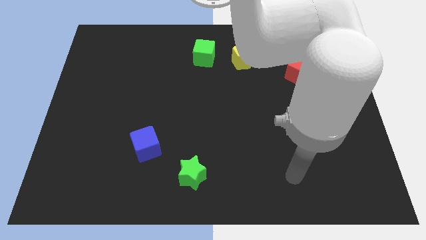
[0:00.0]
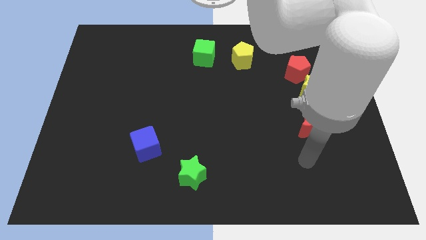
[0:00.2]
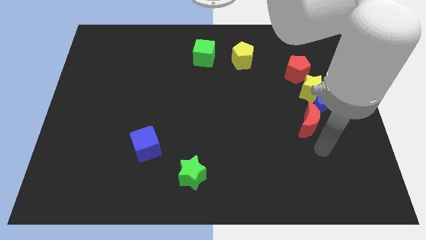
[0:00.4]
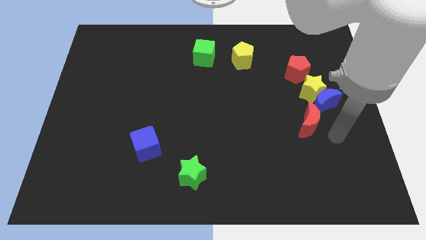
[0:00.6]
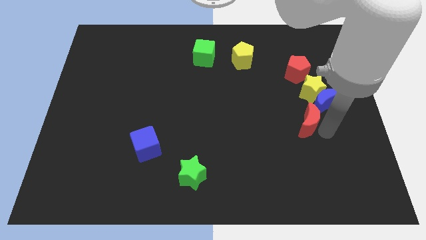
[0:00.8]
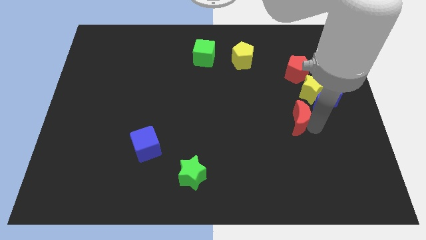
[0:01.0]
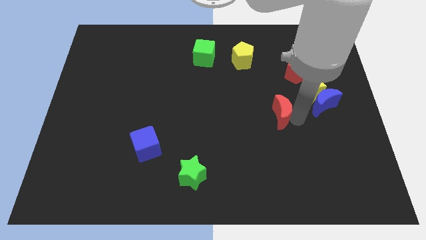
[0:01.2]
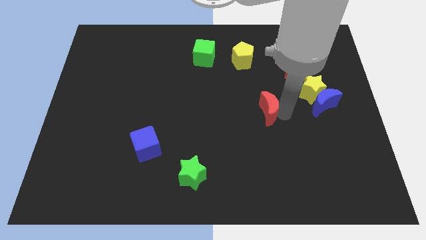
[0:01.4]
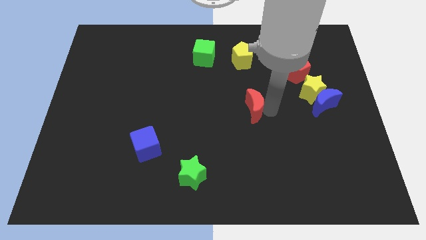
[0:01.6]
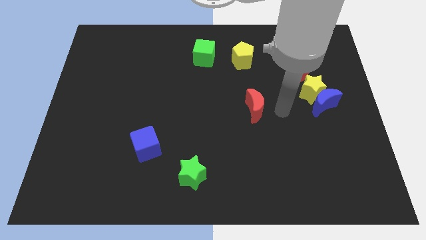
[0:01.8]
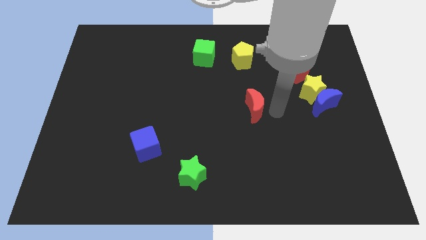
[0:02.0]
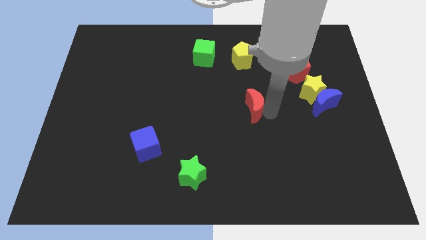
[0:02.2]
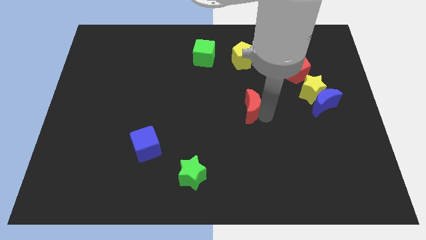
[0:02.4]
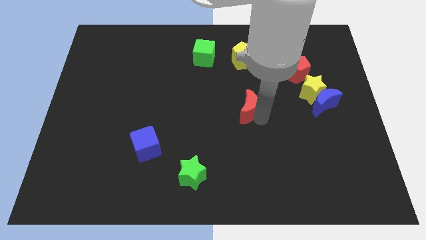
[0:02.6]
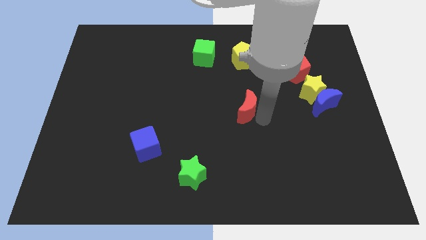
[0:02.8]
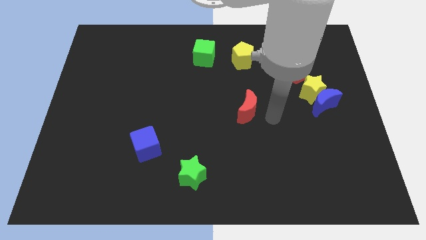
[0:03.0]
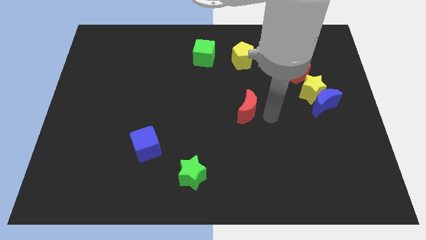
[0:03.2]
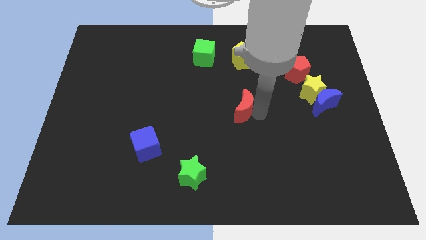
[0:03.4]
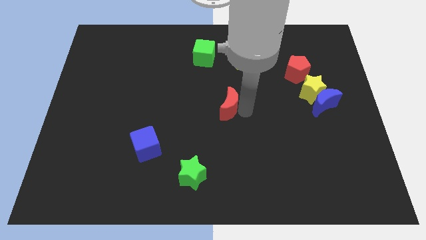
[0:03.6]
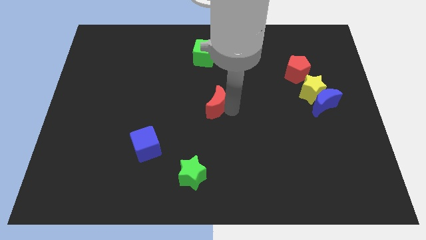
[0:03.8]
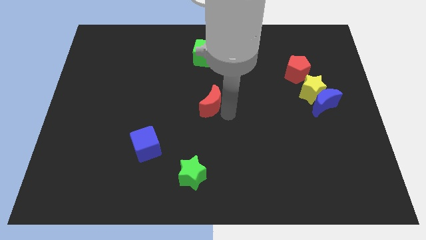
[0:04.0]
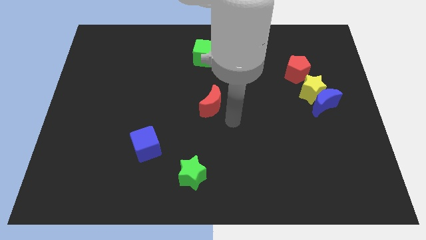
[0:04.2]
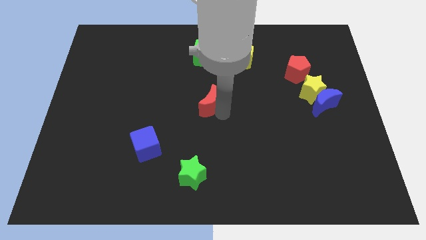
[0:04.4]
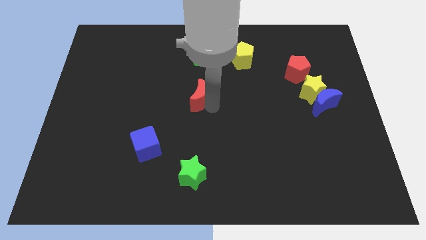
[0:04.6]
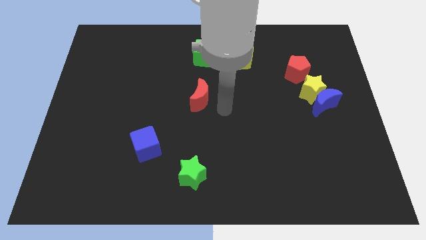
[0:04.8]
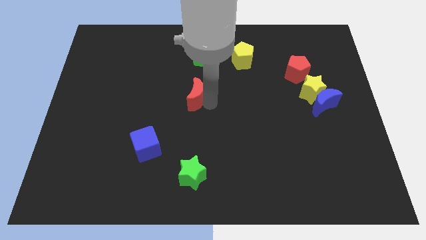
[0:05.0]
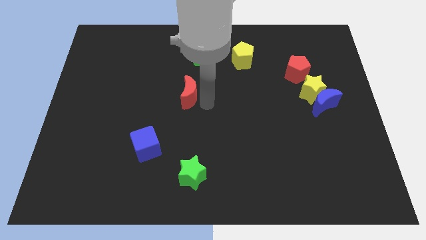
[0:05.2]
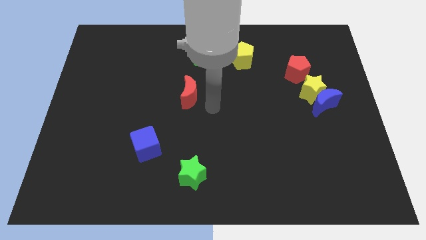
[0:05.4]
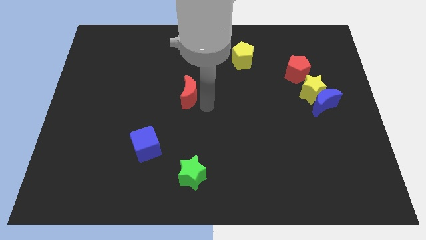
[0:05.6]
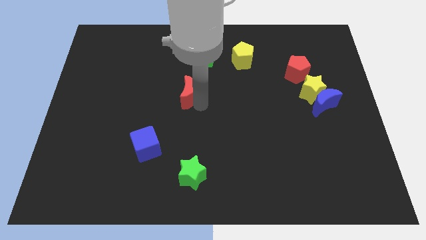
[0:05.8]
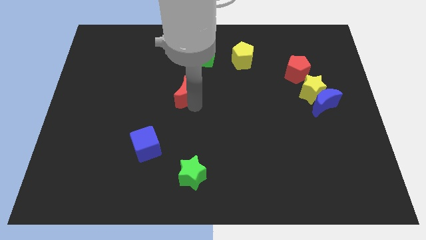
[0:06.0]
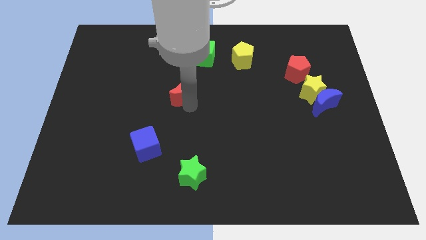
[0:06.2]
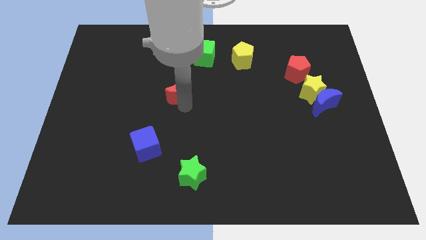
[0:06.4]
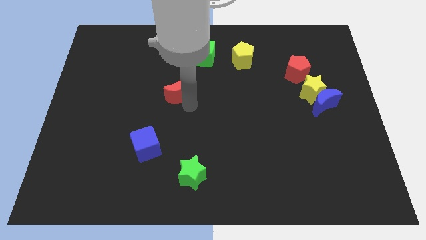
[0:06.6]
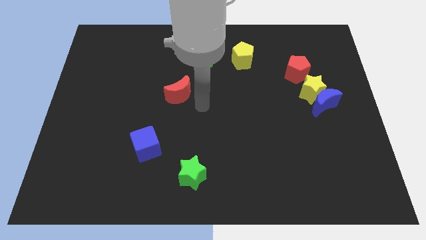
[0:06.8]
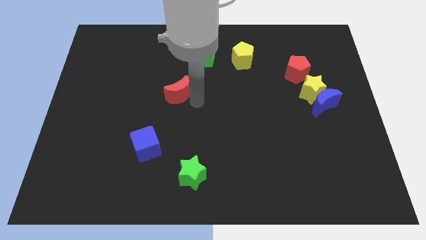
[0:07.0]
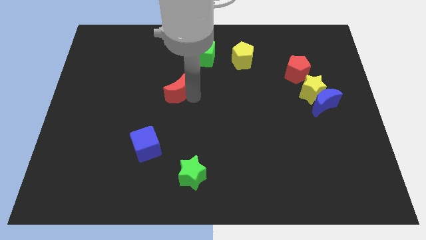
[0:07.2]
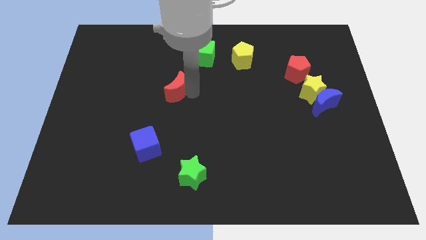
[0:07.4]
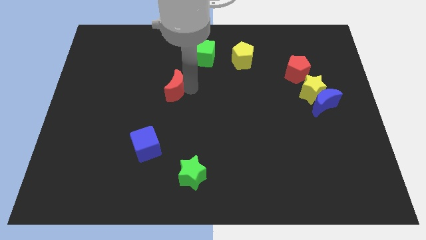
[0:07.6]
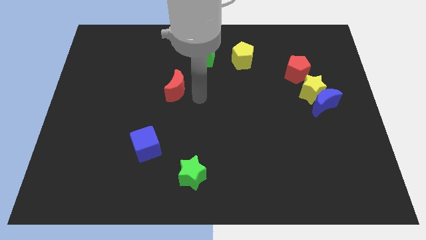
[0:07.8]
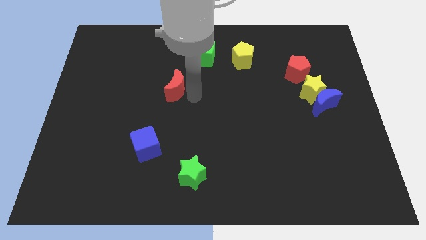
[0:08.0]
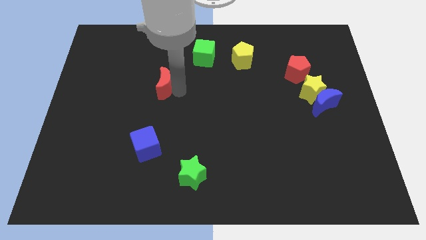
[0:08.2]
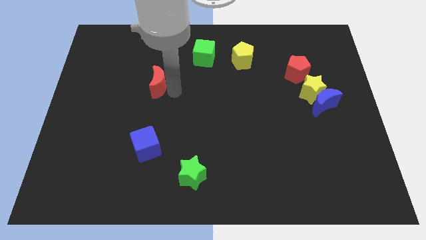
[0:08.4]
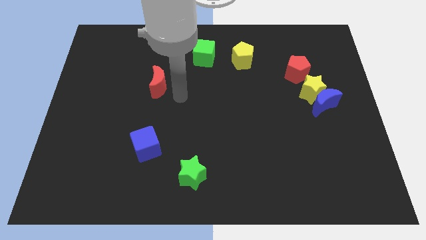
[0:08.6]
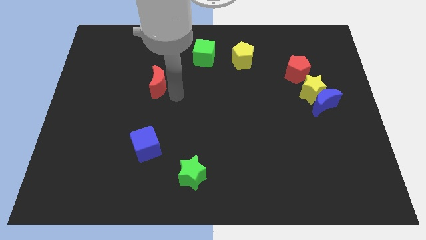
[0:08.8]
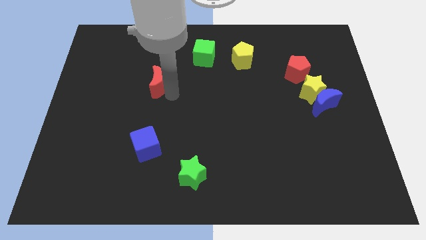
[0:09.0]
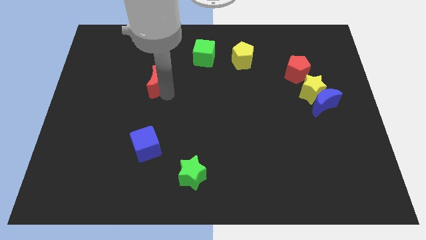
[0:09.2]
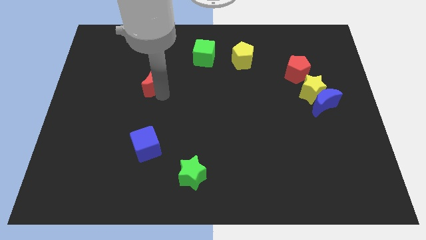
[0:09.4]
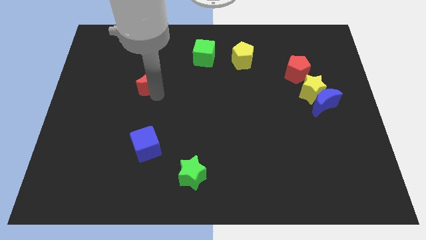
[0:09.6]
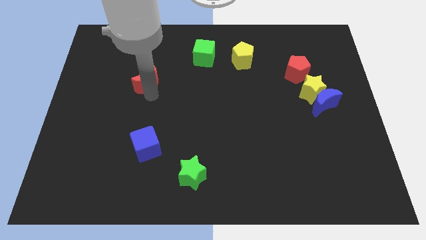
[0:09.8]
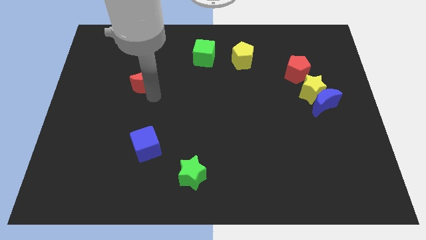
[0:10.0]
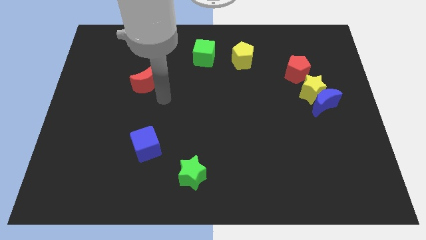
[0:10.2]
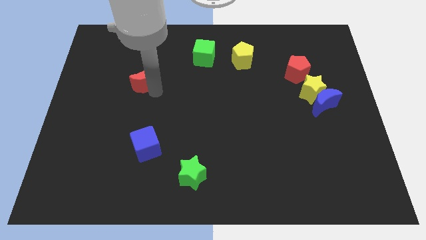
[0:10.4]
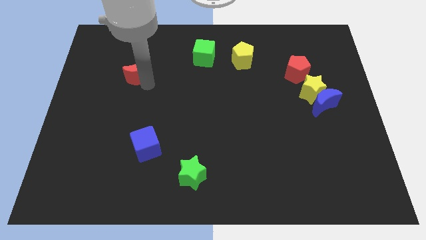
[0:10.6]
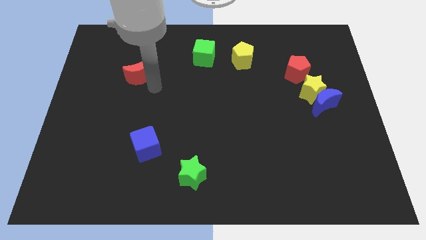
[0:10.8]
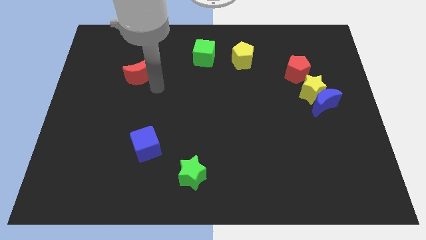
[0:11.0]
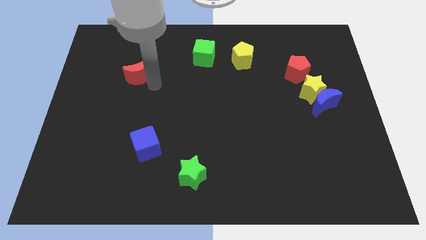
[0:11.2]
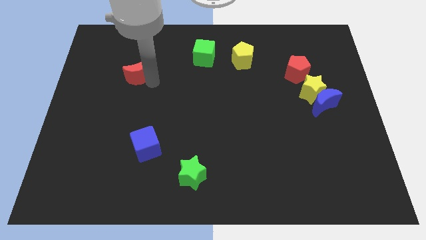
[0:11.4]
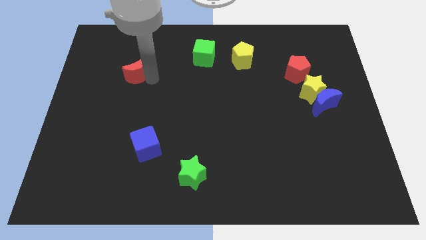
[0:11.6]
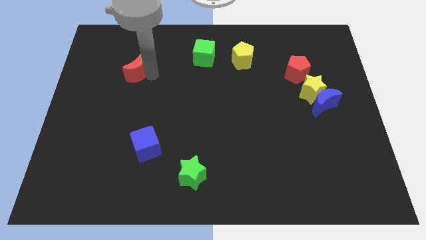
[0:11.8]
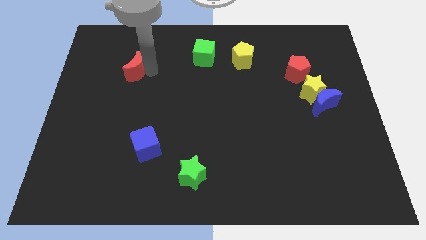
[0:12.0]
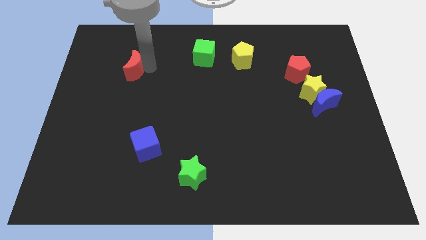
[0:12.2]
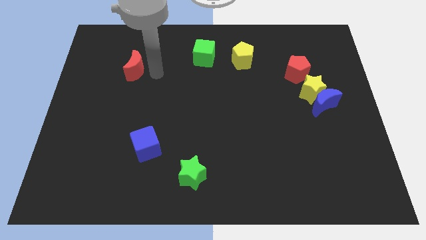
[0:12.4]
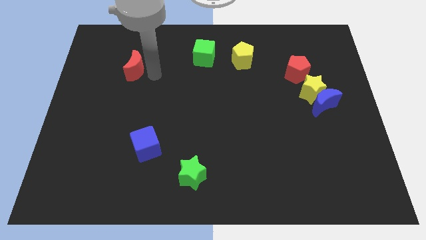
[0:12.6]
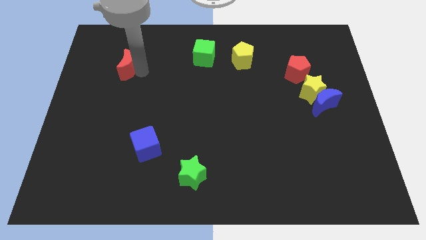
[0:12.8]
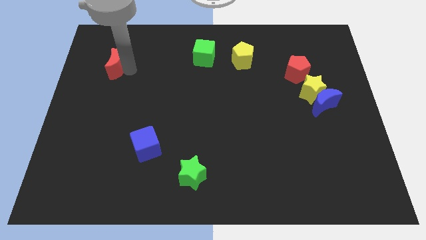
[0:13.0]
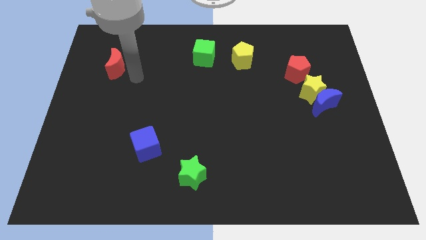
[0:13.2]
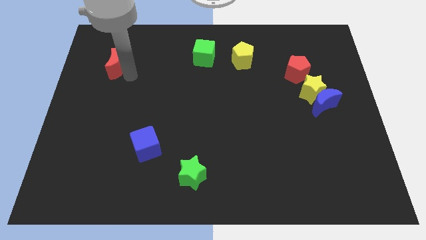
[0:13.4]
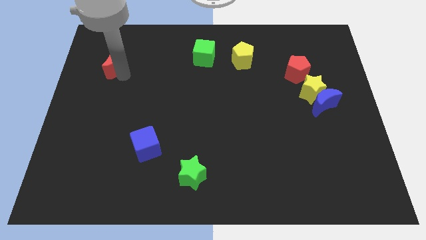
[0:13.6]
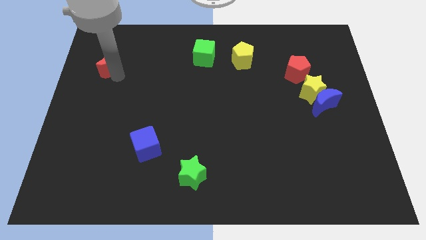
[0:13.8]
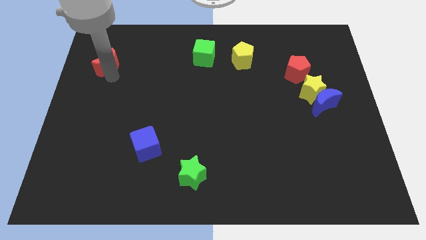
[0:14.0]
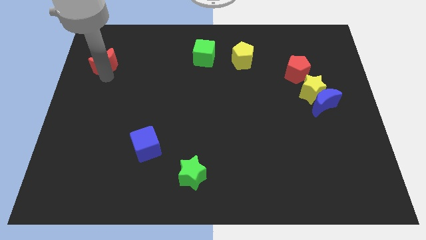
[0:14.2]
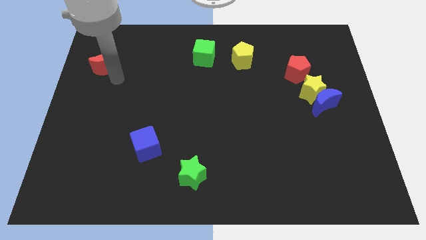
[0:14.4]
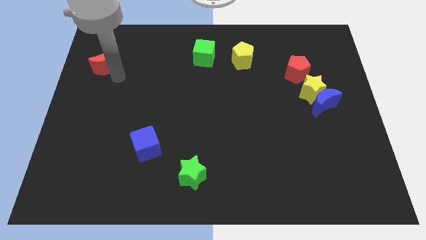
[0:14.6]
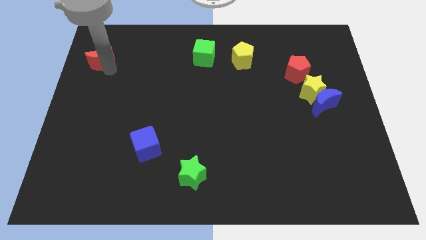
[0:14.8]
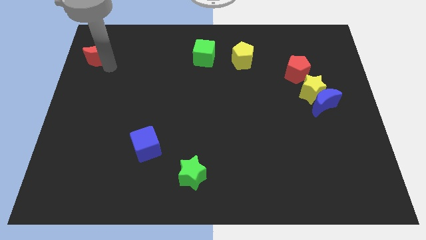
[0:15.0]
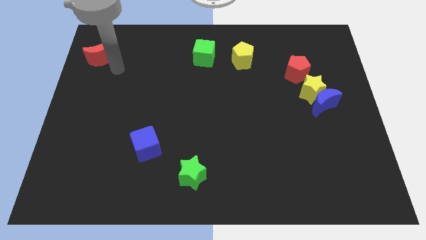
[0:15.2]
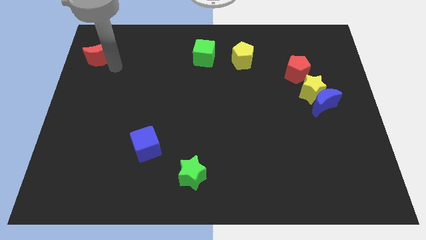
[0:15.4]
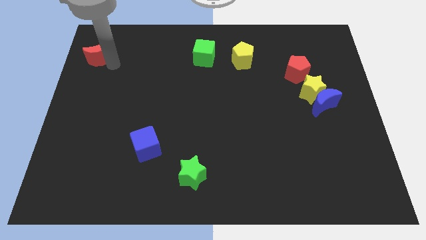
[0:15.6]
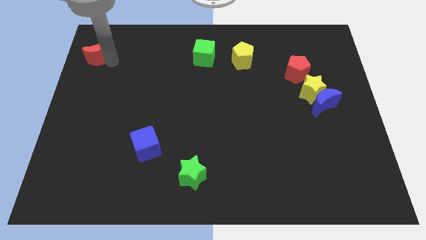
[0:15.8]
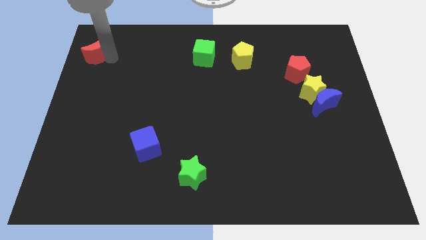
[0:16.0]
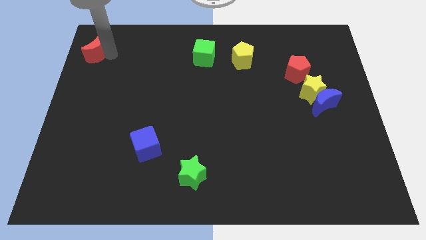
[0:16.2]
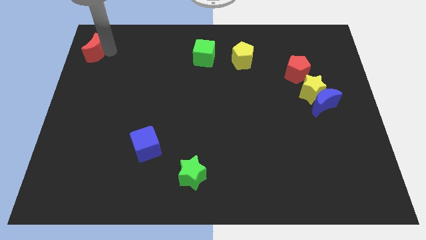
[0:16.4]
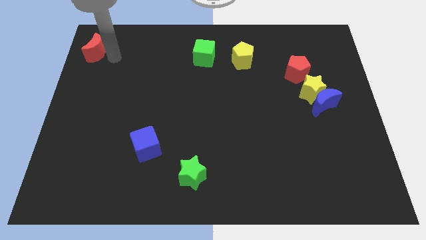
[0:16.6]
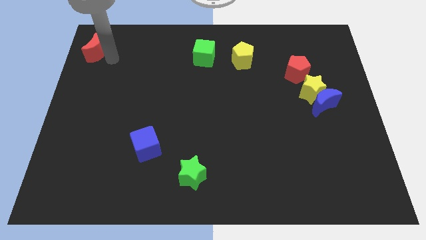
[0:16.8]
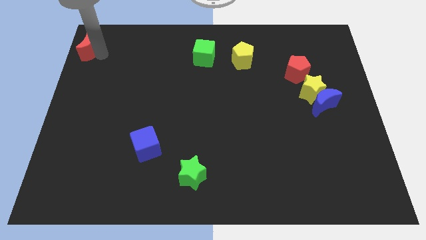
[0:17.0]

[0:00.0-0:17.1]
move the red moon to the top left
